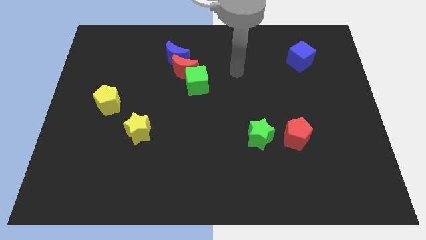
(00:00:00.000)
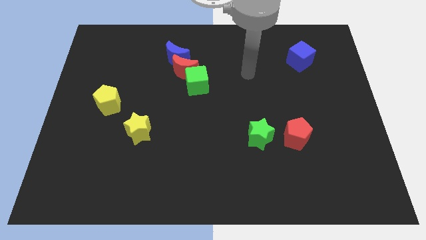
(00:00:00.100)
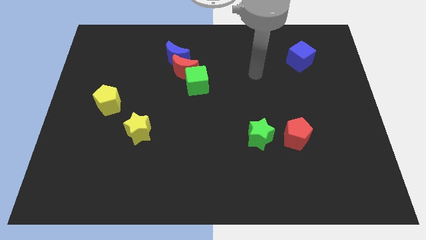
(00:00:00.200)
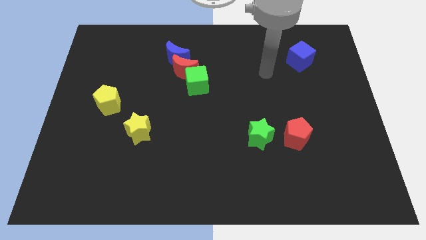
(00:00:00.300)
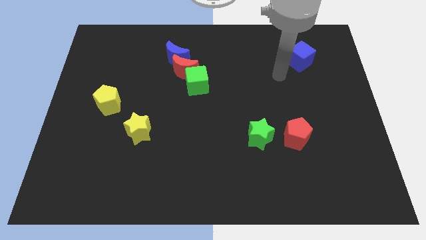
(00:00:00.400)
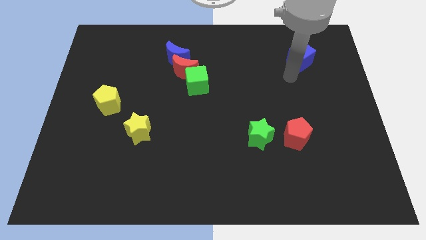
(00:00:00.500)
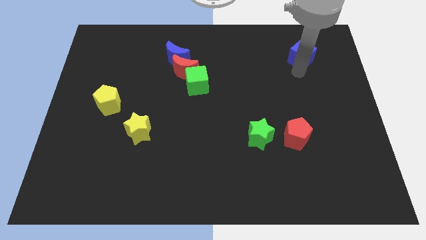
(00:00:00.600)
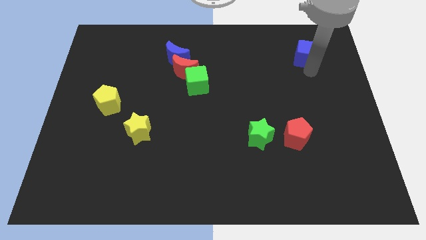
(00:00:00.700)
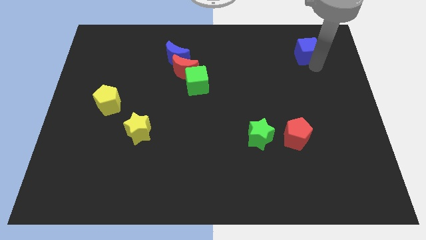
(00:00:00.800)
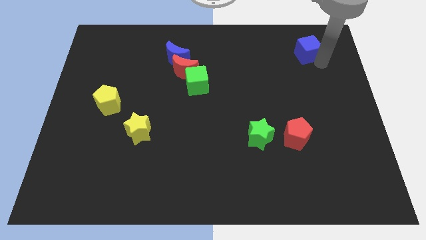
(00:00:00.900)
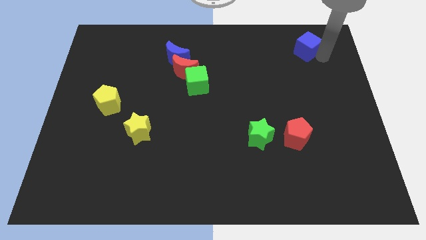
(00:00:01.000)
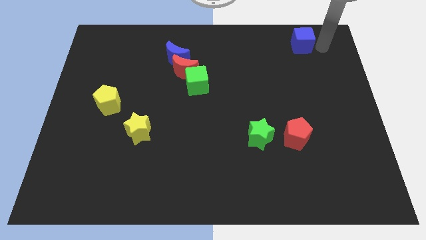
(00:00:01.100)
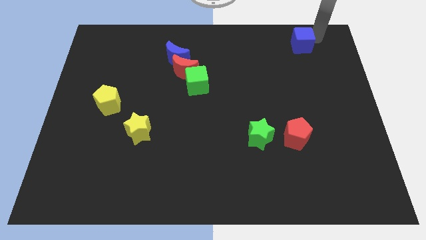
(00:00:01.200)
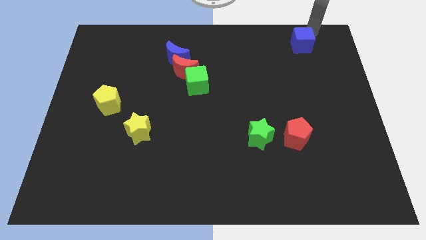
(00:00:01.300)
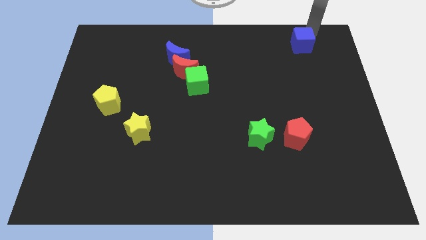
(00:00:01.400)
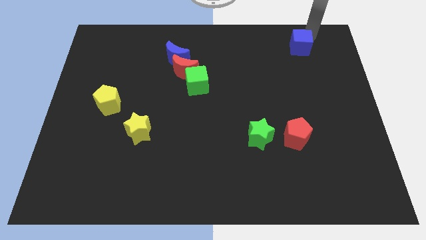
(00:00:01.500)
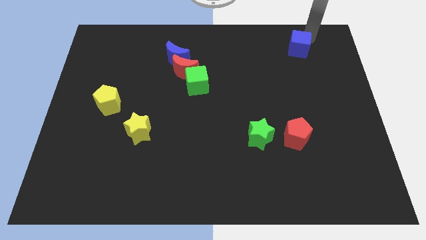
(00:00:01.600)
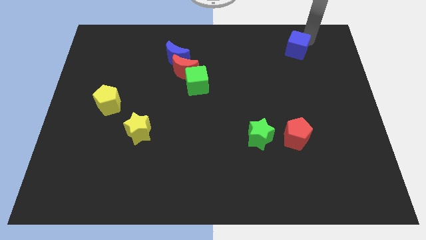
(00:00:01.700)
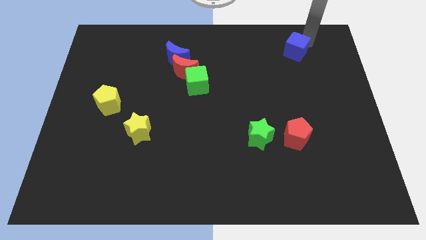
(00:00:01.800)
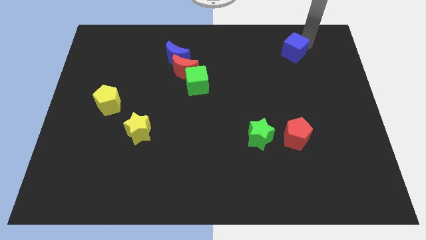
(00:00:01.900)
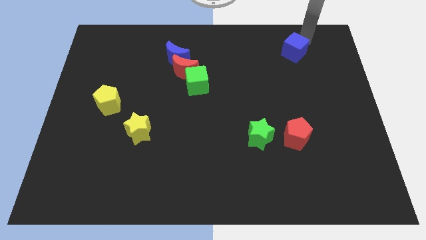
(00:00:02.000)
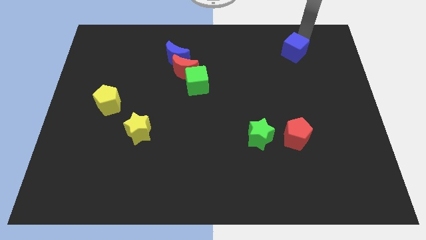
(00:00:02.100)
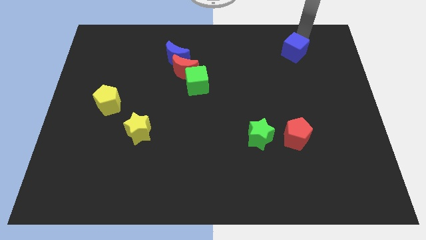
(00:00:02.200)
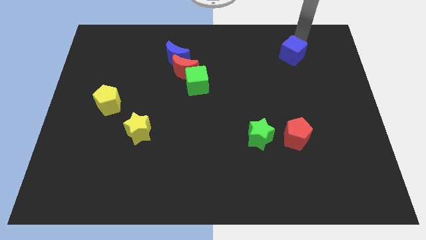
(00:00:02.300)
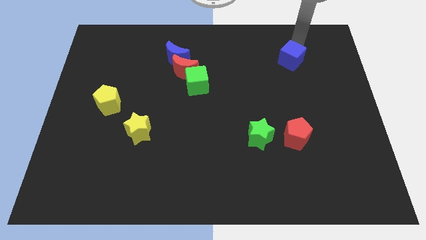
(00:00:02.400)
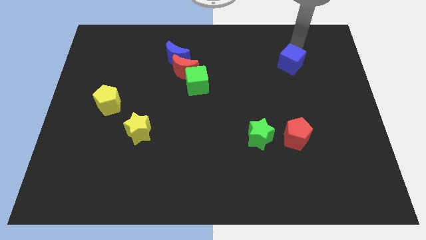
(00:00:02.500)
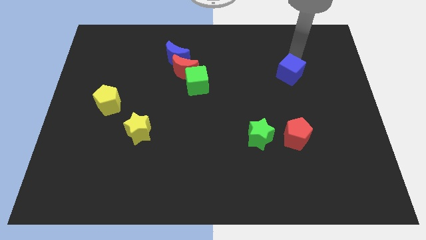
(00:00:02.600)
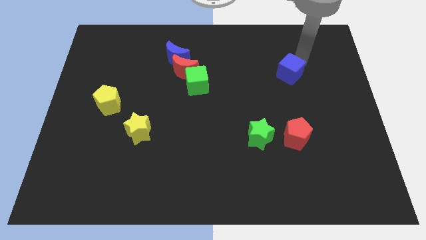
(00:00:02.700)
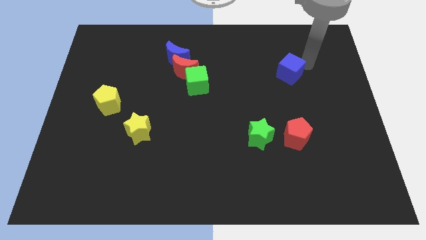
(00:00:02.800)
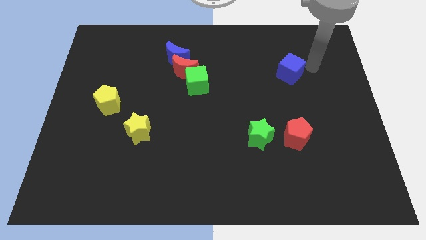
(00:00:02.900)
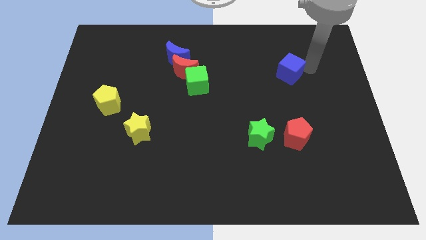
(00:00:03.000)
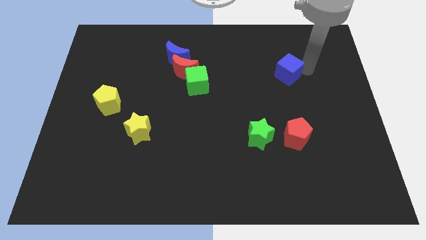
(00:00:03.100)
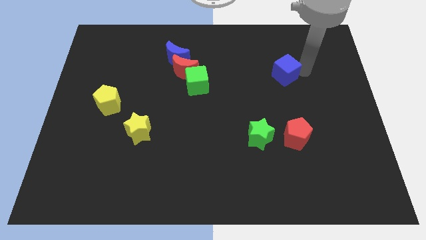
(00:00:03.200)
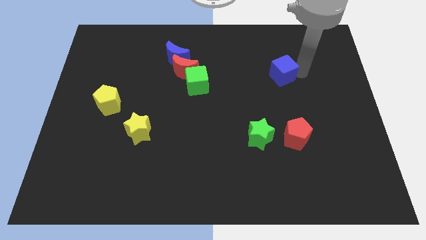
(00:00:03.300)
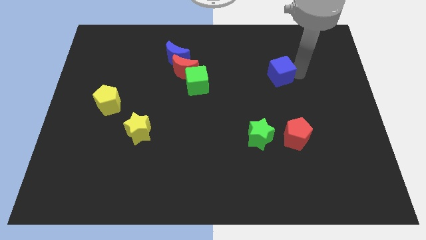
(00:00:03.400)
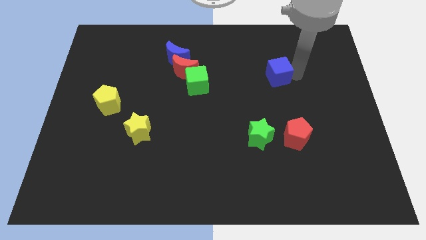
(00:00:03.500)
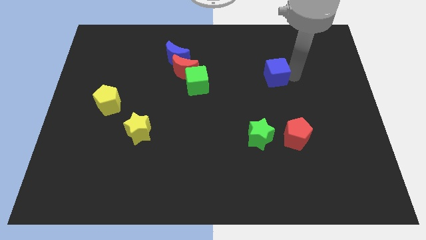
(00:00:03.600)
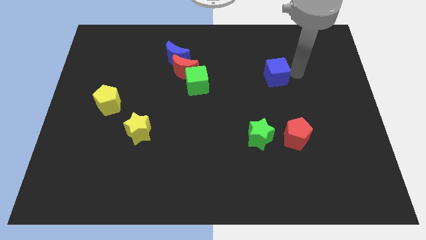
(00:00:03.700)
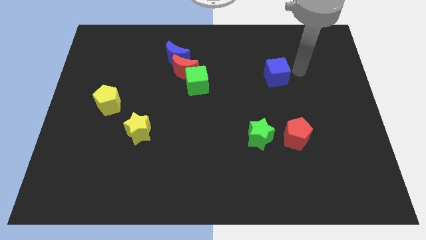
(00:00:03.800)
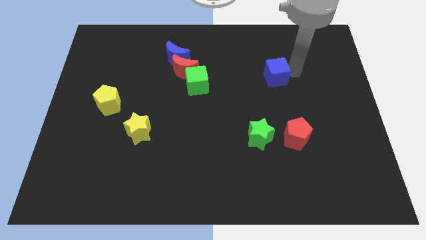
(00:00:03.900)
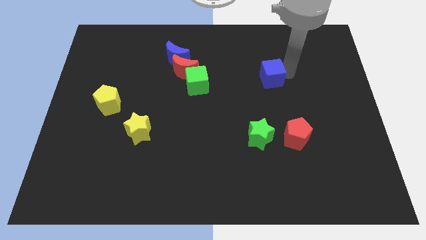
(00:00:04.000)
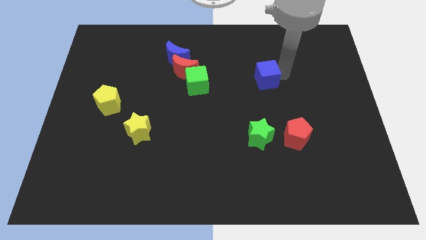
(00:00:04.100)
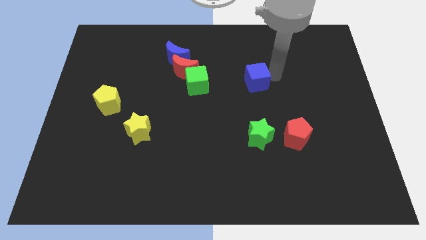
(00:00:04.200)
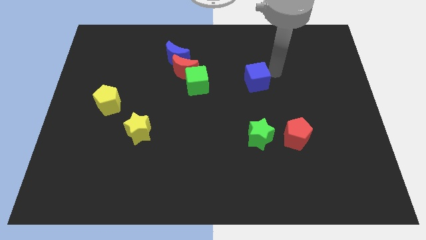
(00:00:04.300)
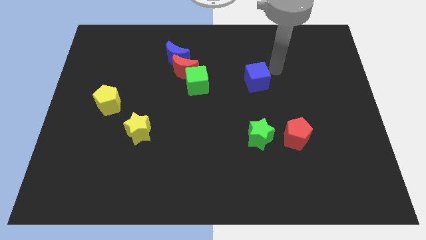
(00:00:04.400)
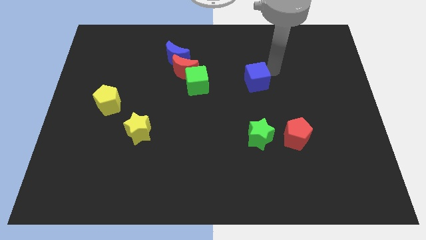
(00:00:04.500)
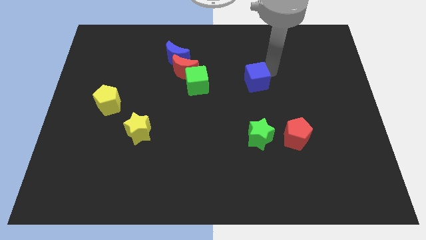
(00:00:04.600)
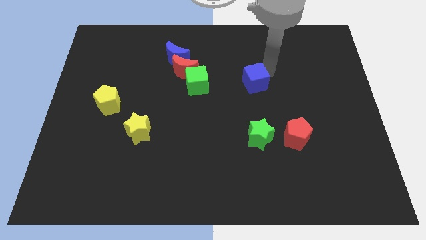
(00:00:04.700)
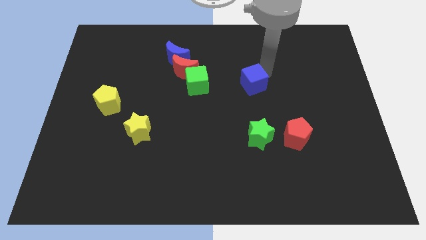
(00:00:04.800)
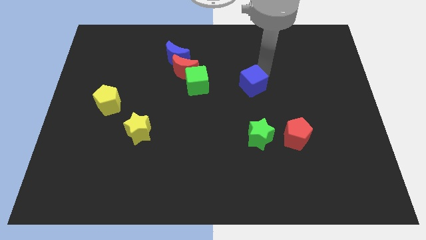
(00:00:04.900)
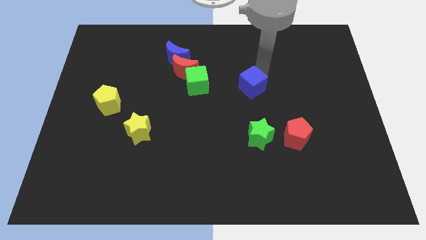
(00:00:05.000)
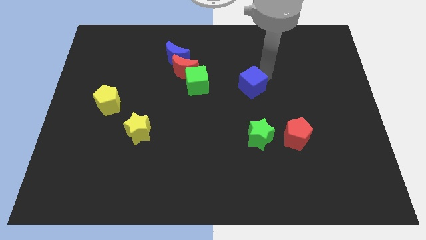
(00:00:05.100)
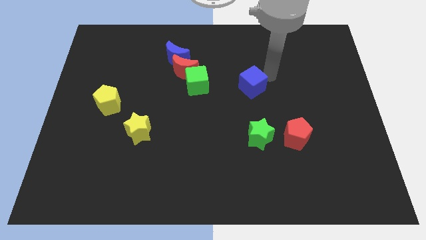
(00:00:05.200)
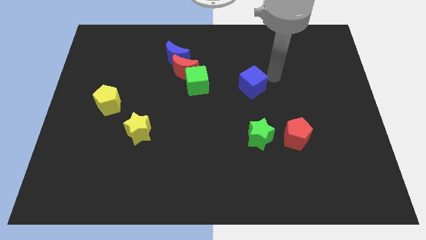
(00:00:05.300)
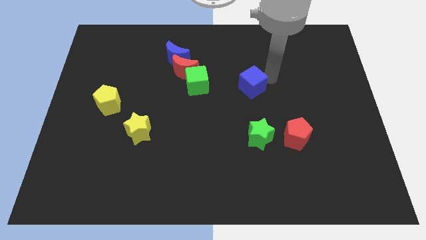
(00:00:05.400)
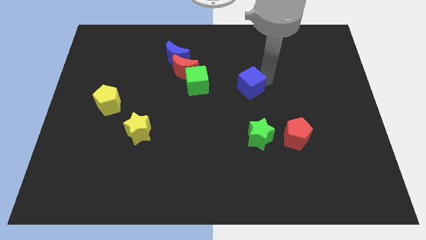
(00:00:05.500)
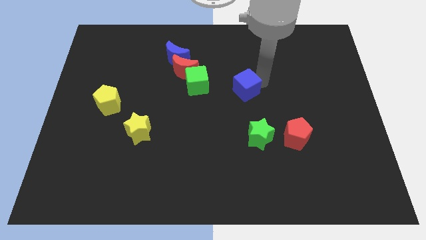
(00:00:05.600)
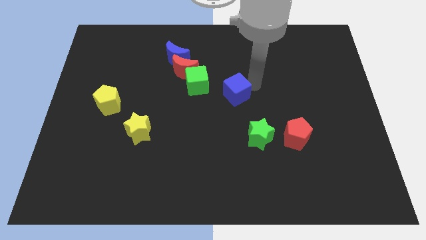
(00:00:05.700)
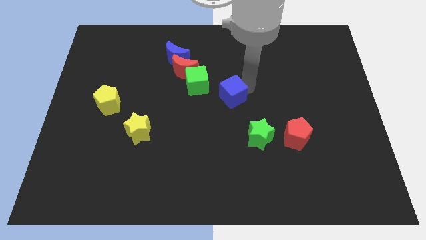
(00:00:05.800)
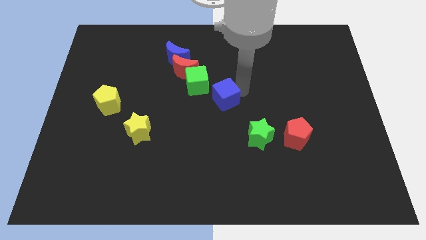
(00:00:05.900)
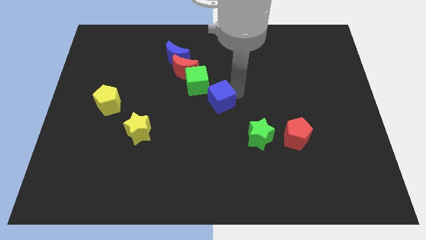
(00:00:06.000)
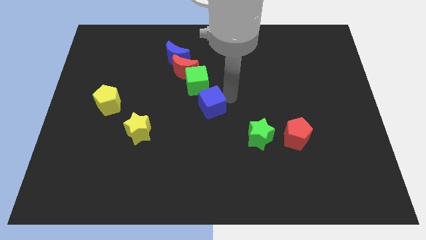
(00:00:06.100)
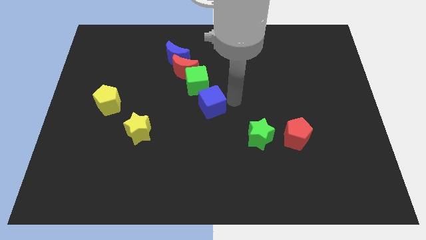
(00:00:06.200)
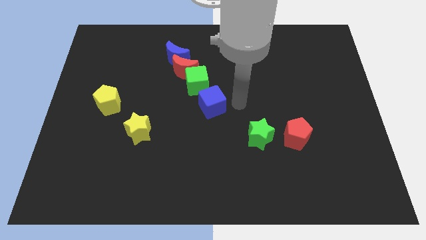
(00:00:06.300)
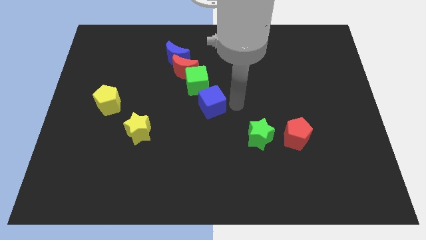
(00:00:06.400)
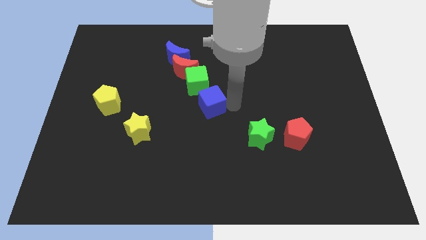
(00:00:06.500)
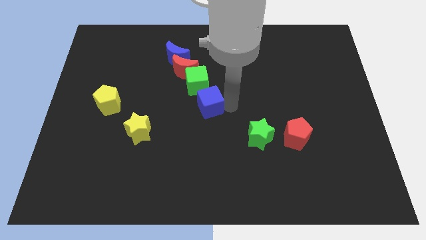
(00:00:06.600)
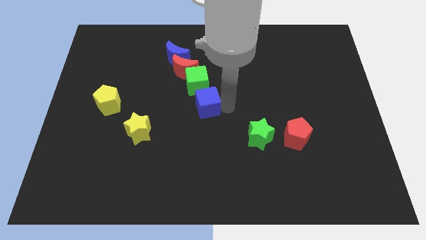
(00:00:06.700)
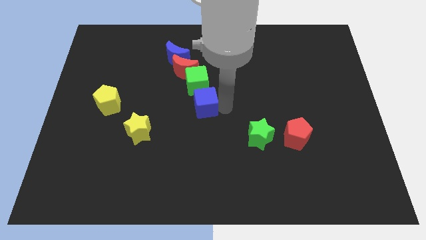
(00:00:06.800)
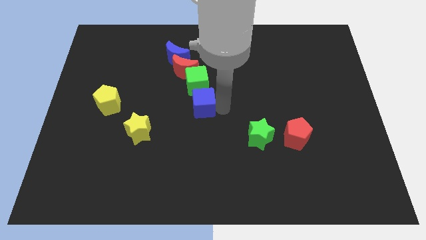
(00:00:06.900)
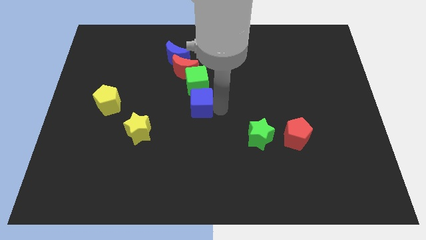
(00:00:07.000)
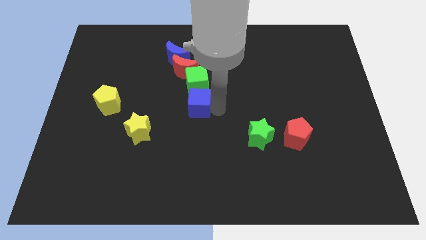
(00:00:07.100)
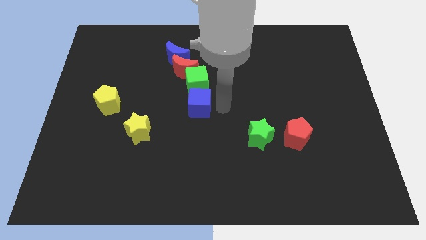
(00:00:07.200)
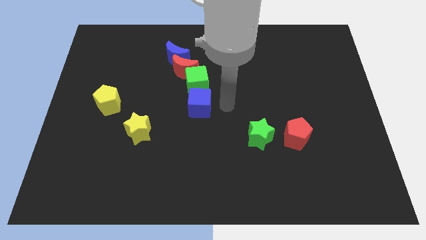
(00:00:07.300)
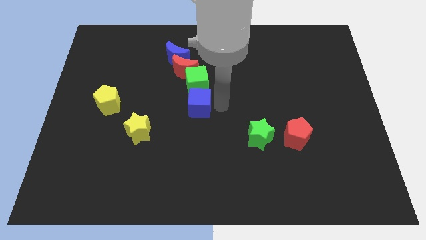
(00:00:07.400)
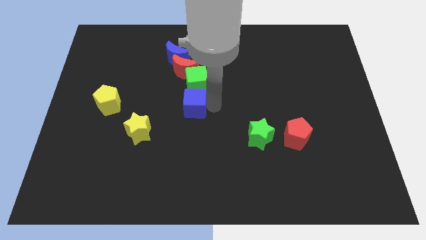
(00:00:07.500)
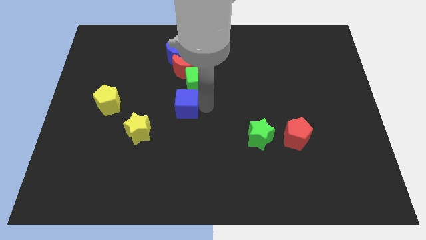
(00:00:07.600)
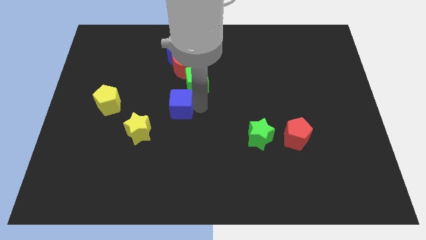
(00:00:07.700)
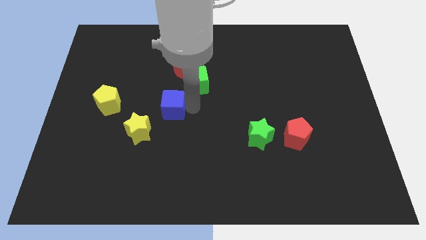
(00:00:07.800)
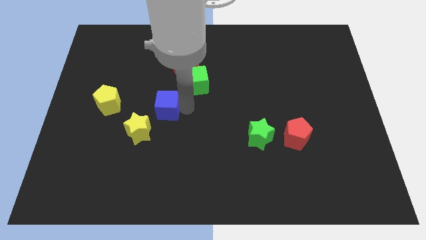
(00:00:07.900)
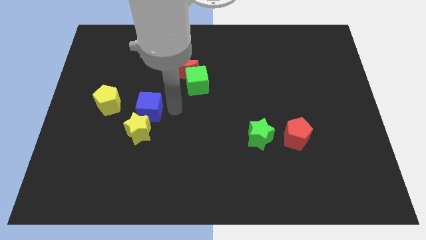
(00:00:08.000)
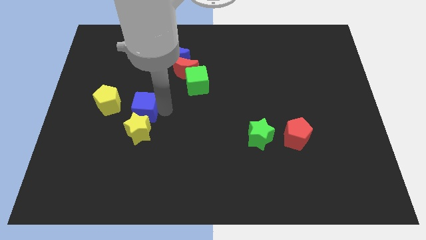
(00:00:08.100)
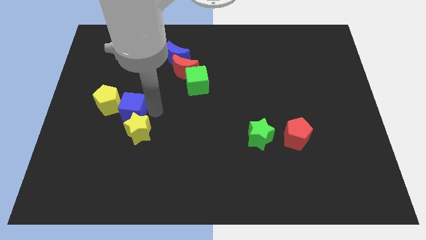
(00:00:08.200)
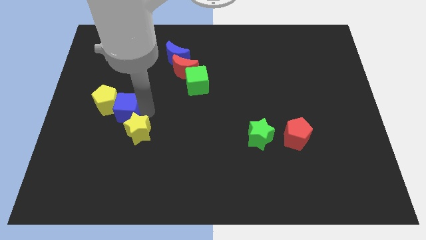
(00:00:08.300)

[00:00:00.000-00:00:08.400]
put the blue cube towards the yellow pentagon
